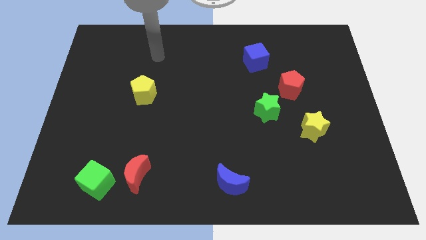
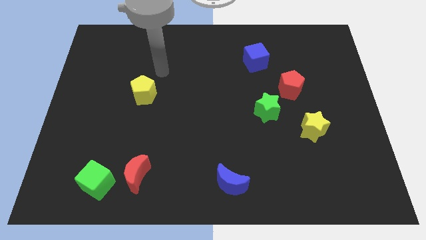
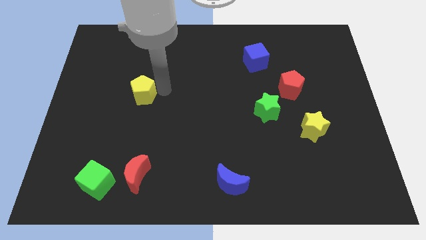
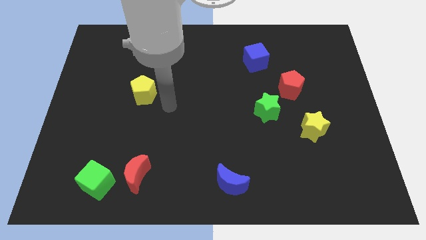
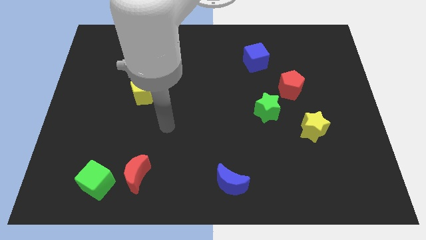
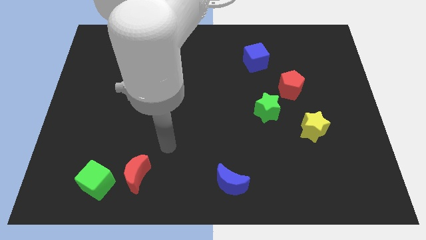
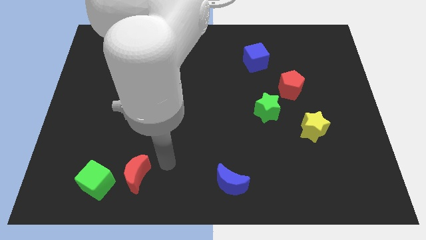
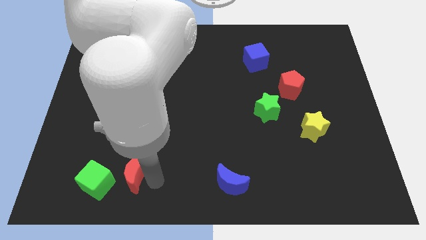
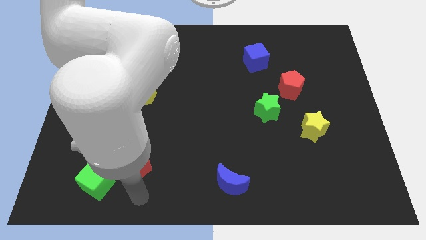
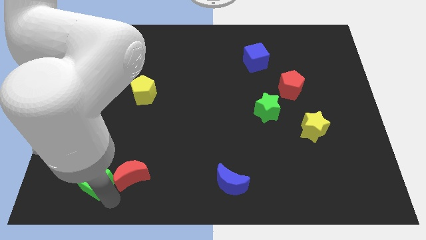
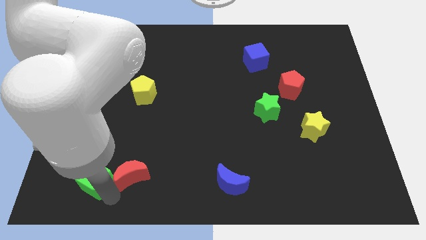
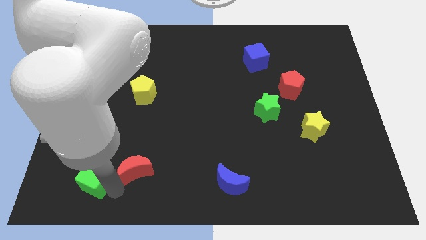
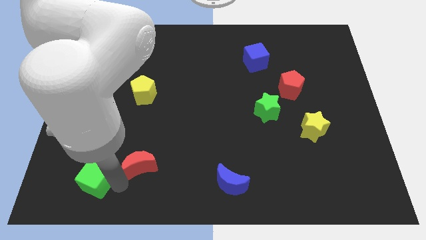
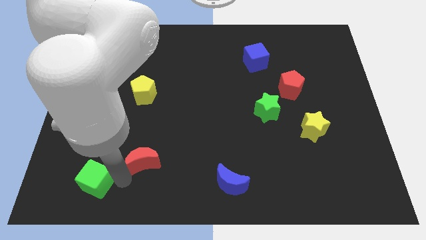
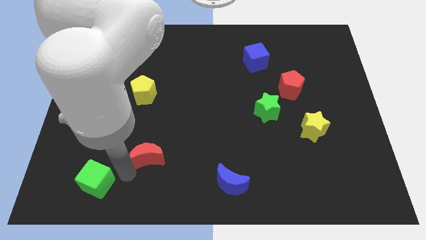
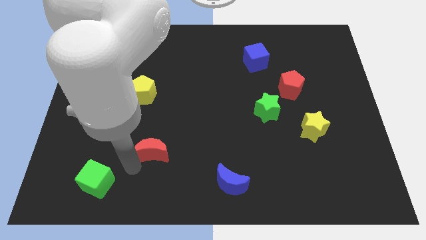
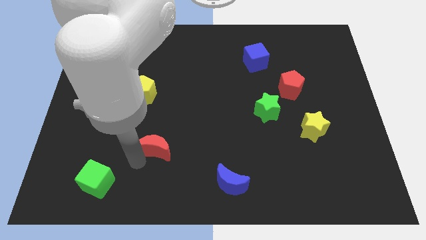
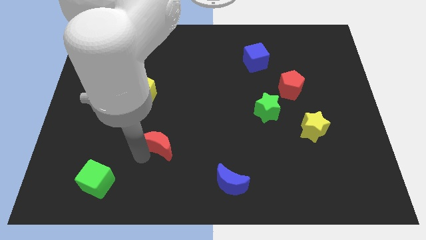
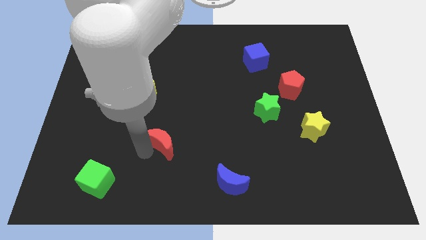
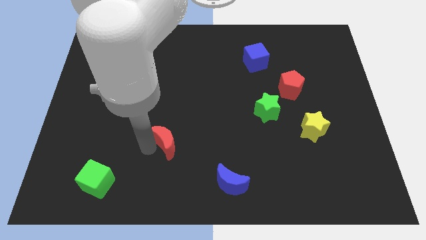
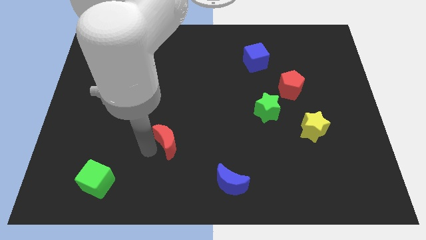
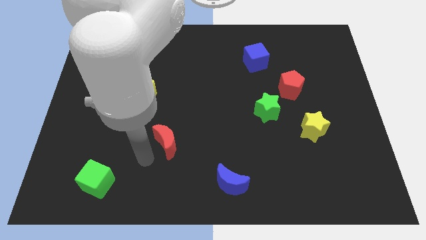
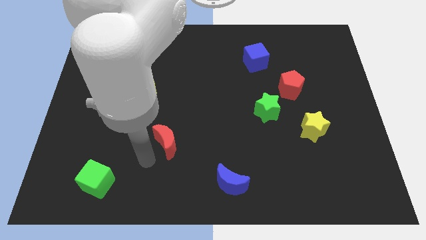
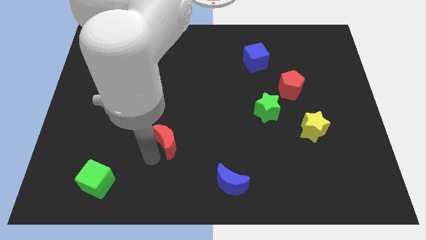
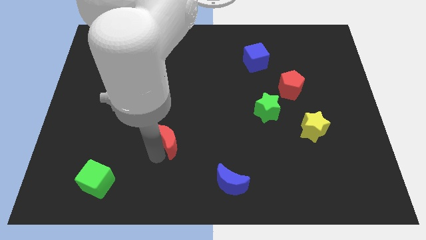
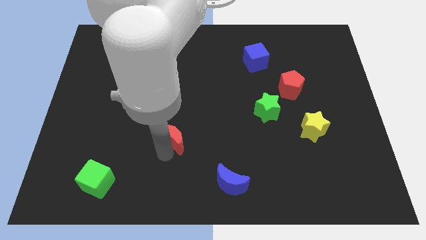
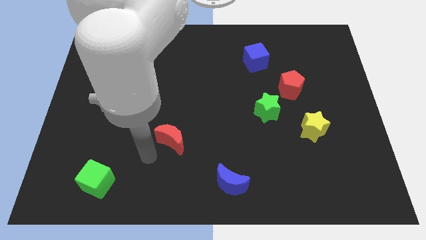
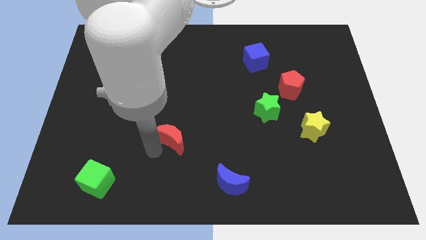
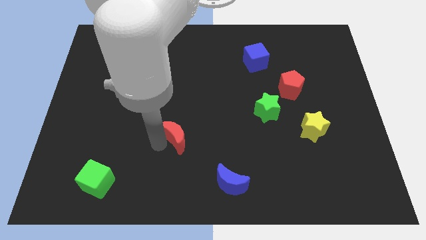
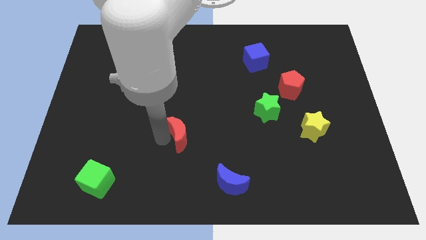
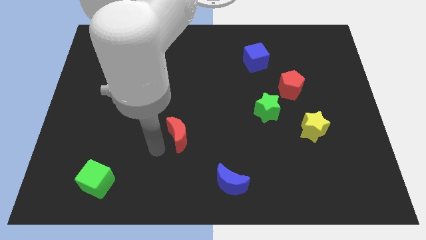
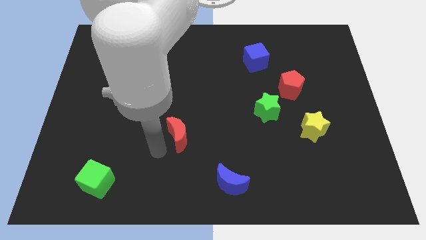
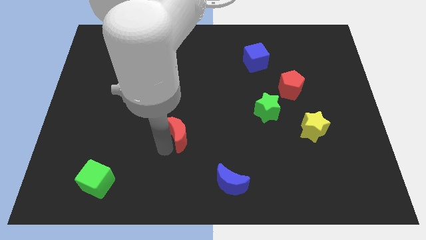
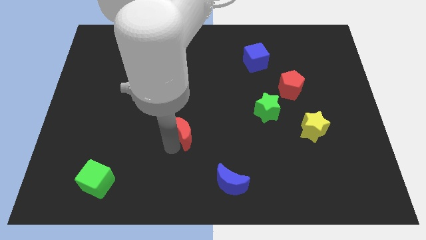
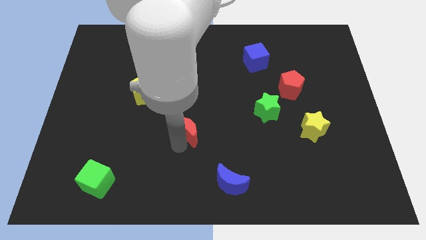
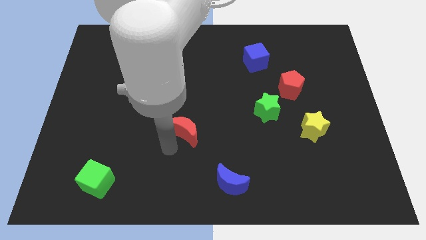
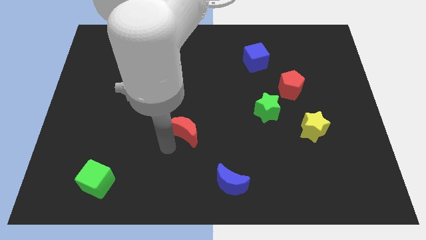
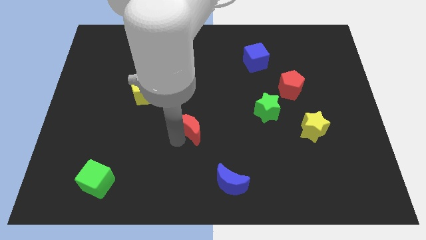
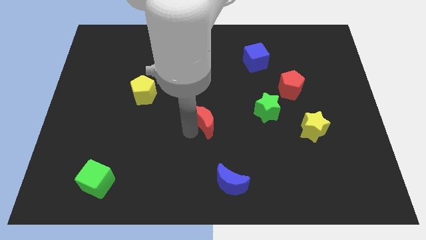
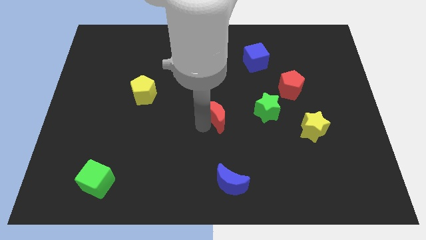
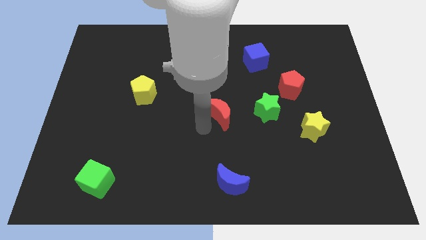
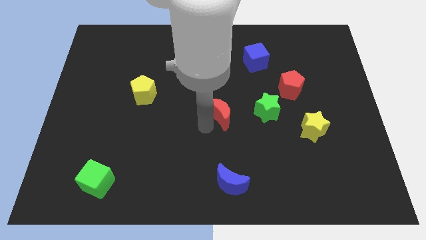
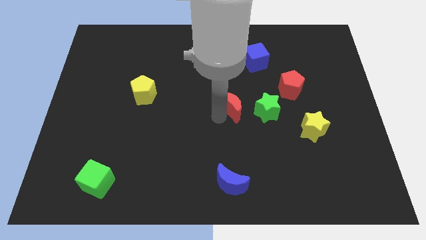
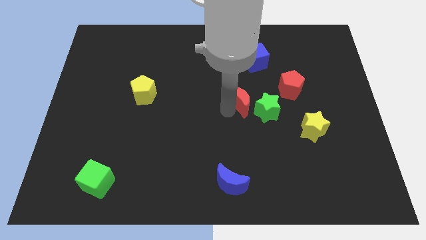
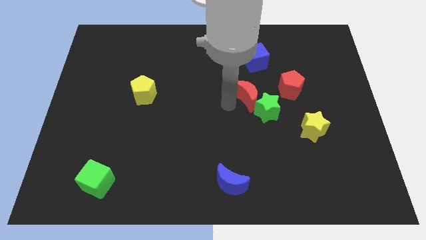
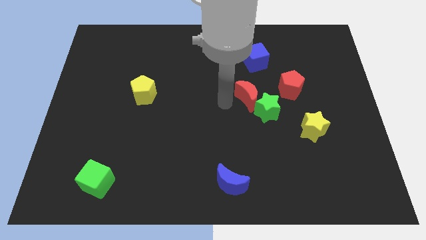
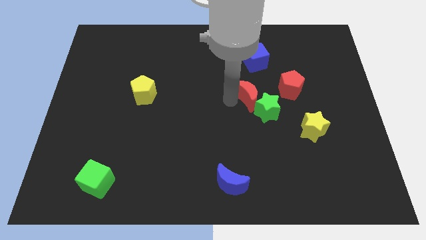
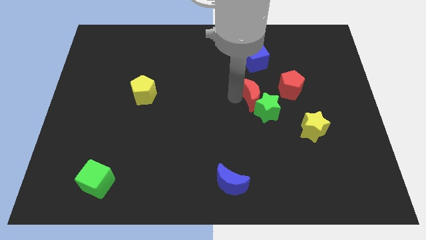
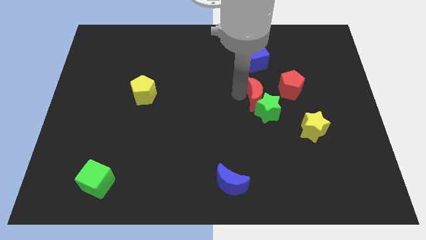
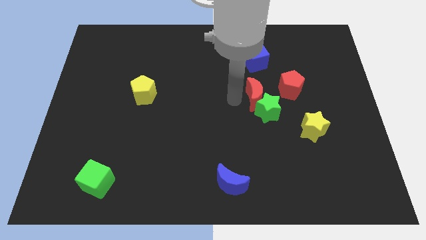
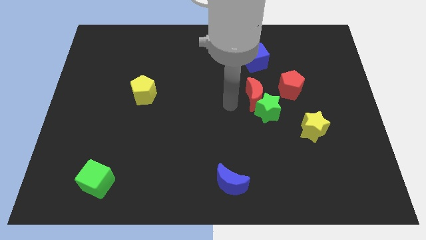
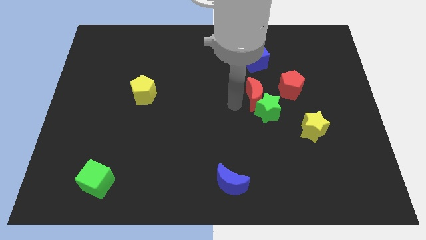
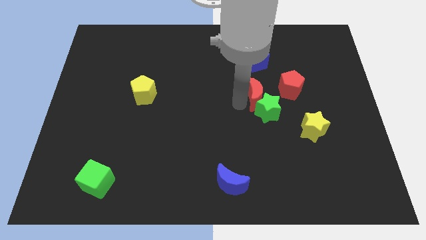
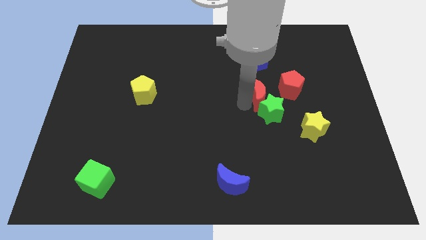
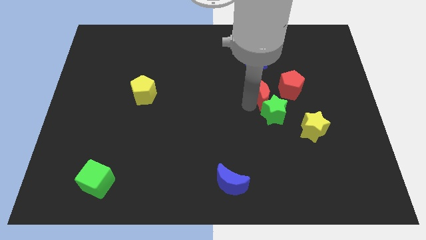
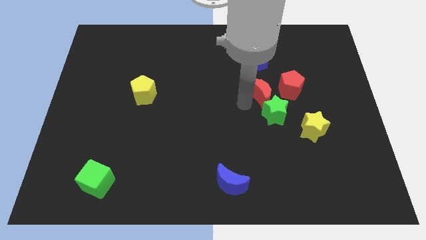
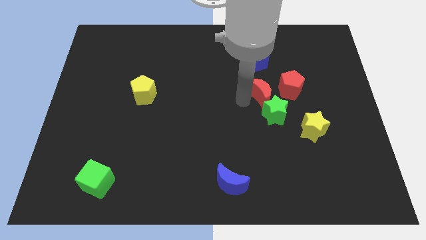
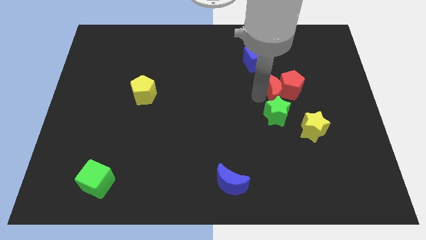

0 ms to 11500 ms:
slide the red moon towards the red pentagon

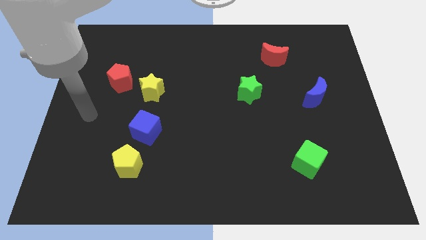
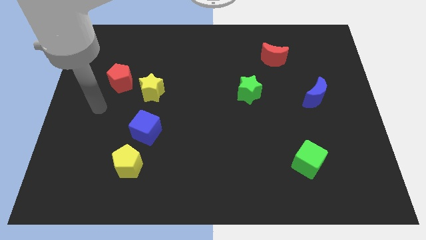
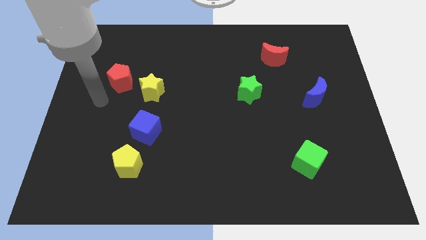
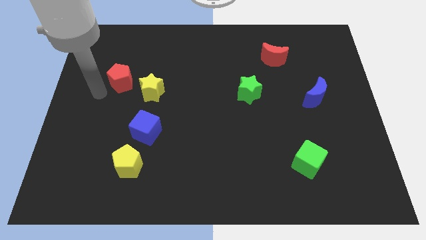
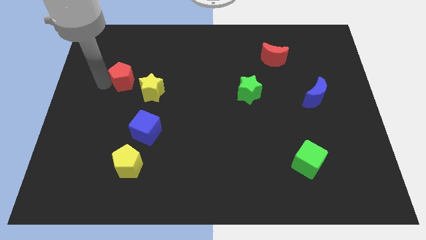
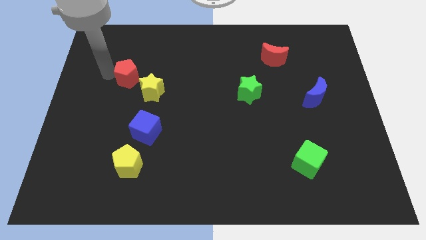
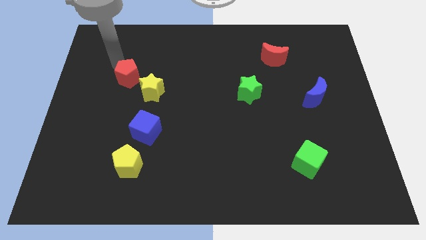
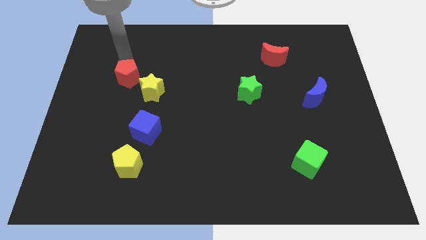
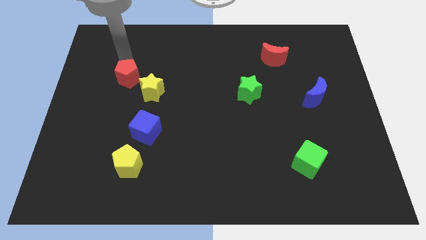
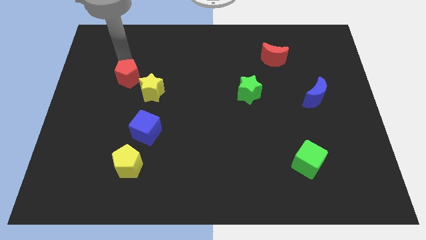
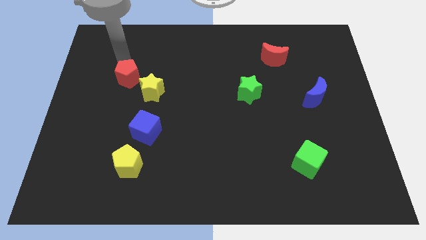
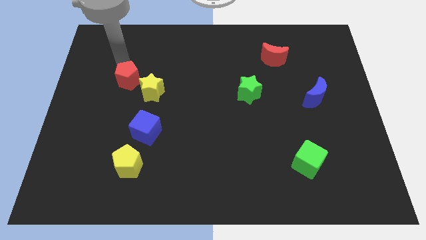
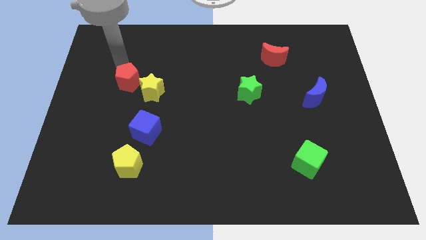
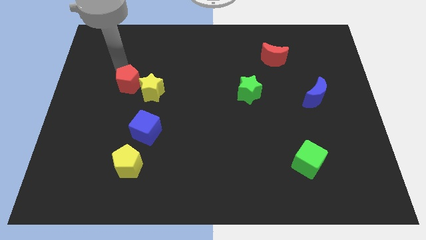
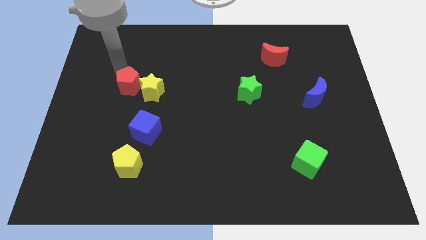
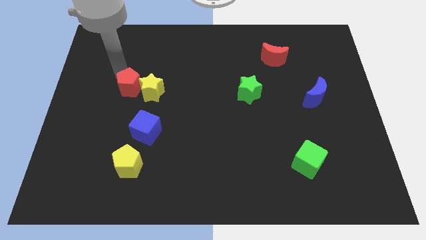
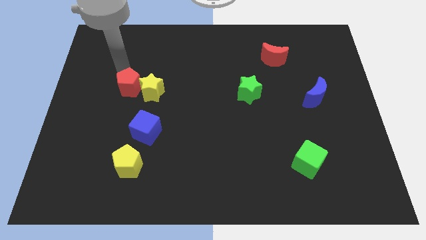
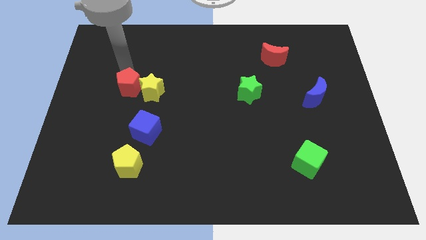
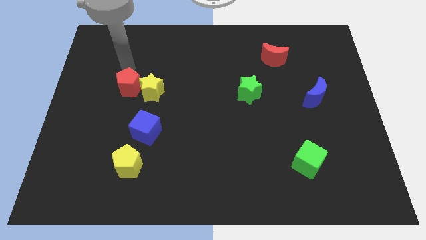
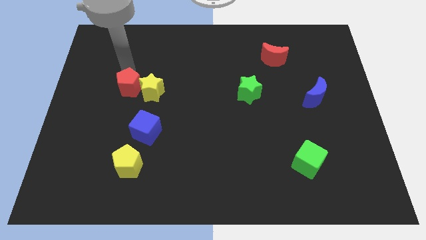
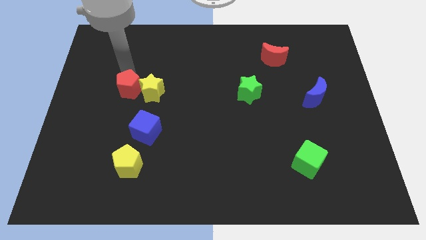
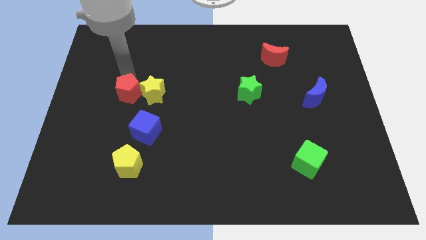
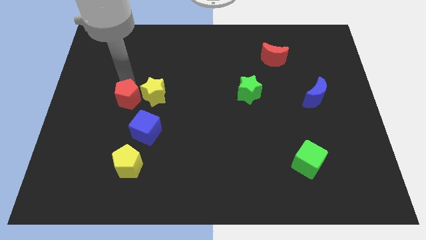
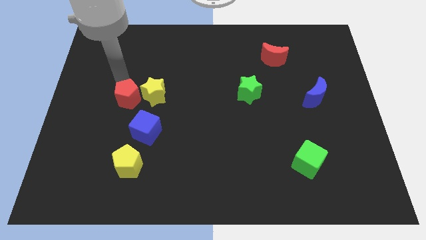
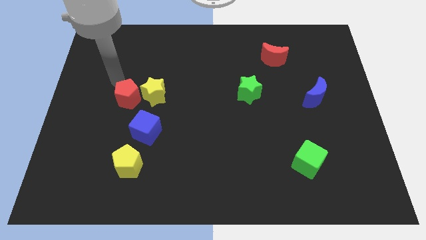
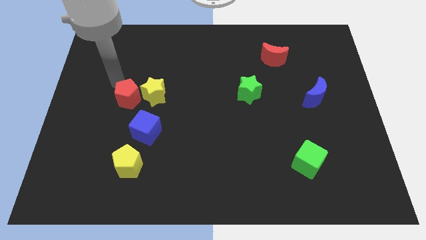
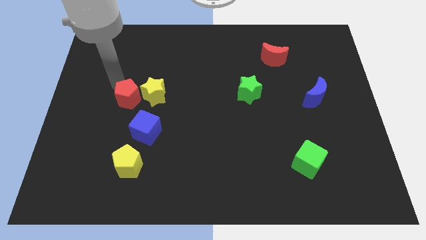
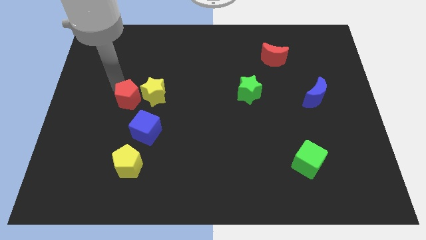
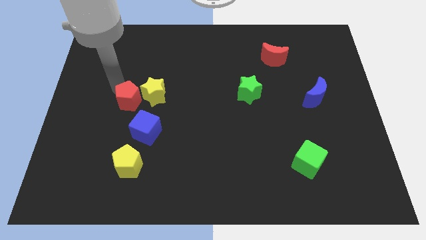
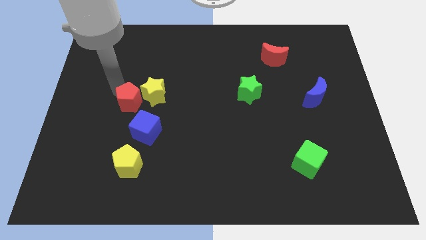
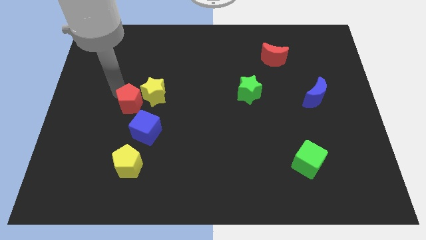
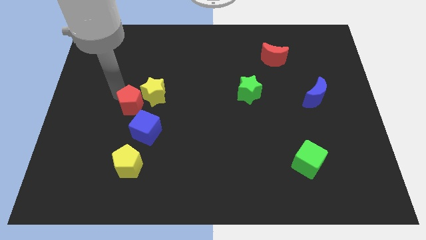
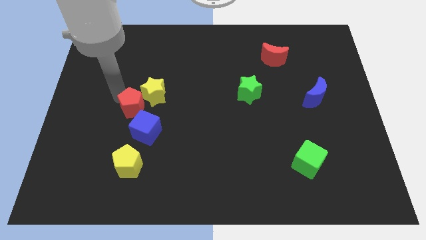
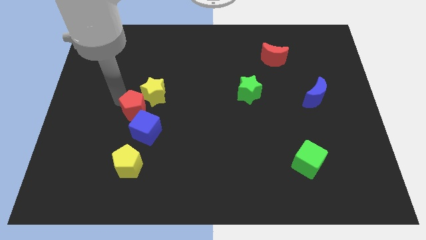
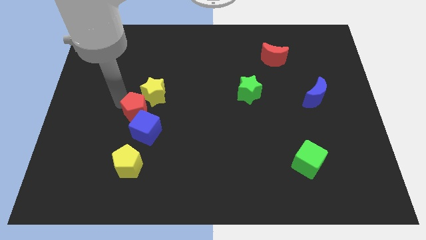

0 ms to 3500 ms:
put the red pentagon close to the blue cube
